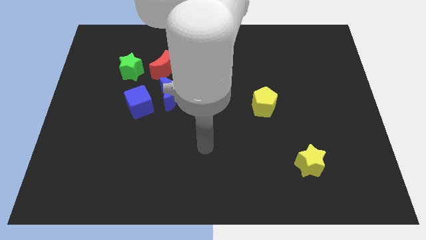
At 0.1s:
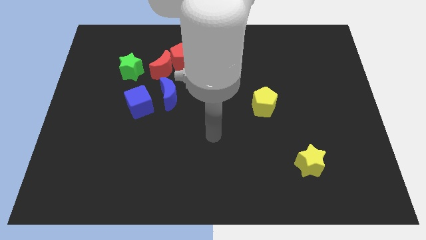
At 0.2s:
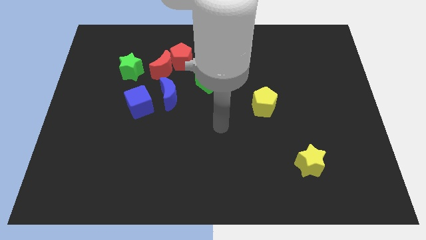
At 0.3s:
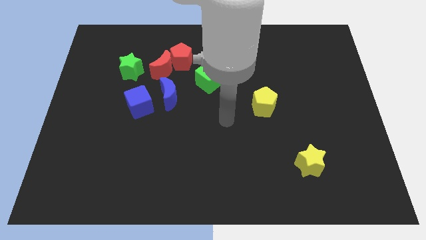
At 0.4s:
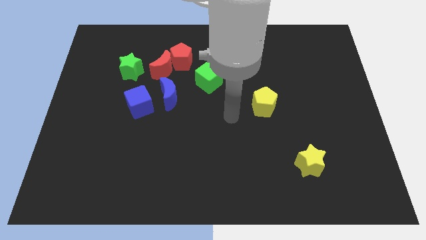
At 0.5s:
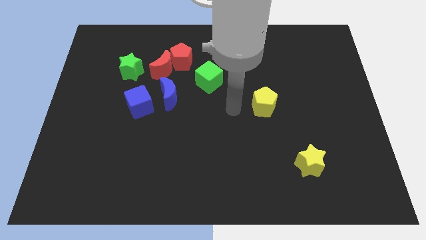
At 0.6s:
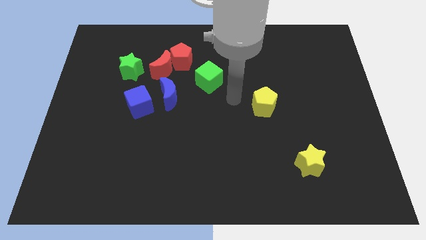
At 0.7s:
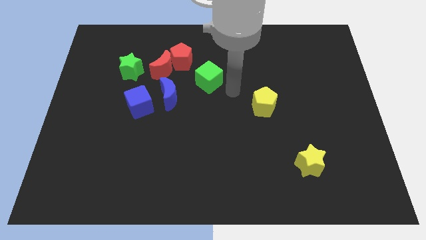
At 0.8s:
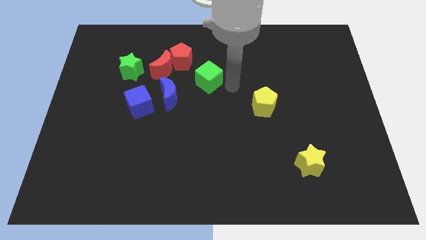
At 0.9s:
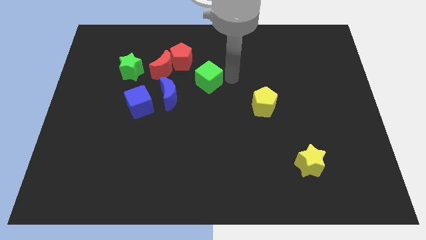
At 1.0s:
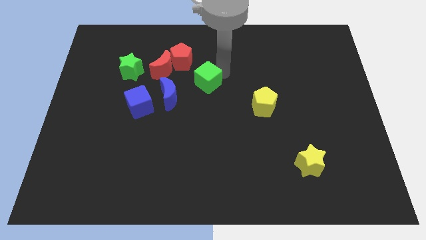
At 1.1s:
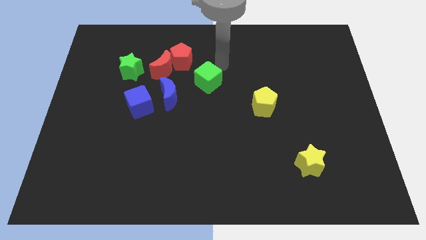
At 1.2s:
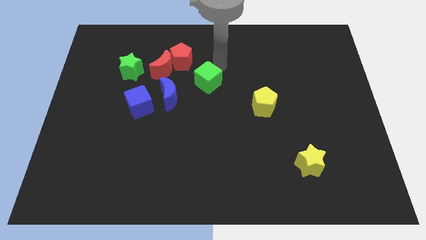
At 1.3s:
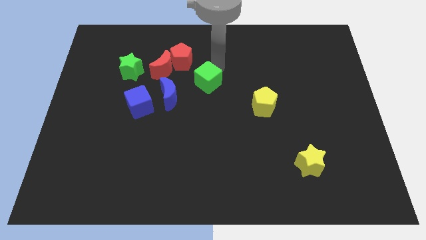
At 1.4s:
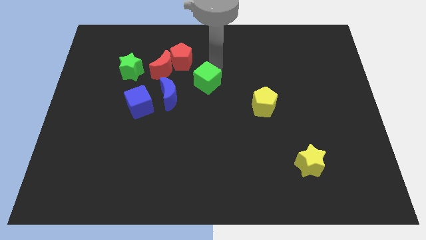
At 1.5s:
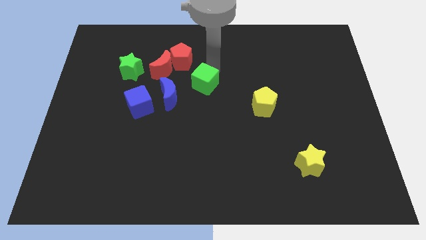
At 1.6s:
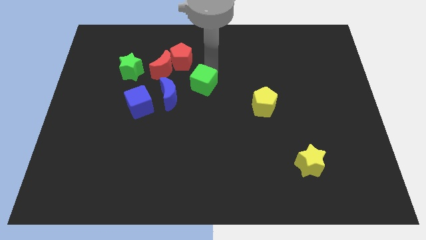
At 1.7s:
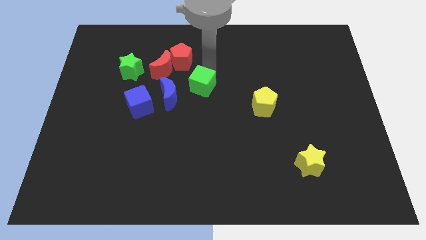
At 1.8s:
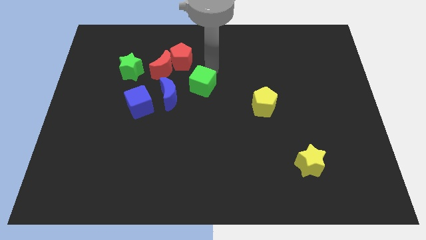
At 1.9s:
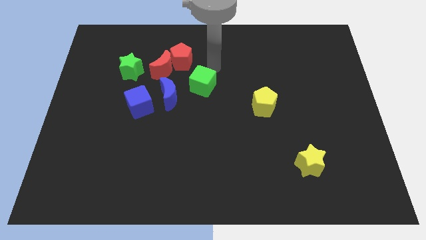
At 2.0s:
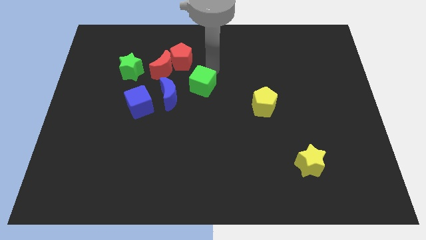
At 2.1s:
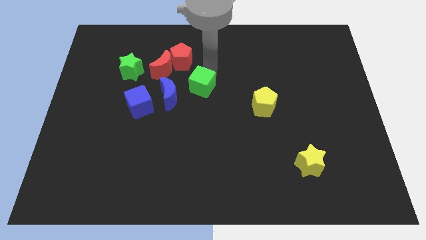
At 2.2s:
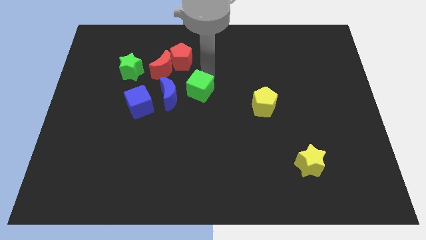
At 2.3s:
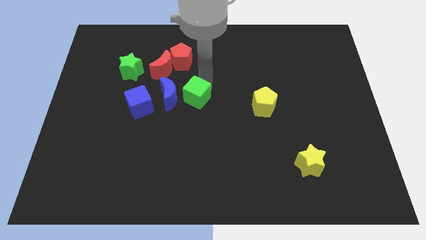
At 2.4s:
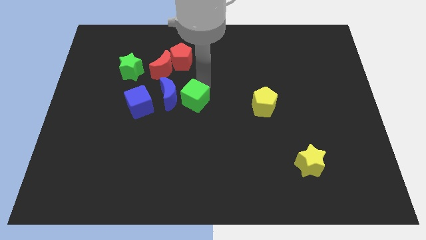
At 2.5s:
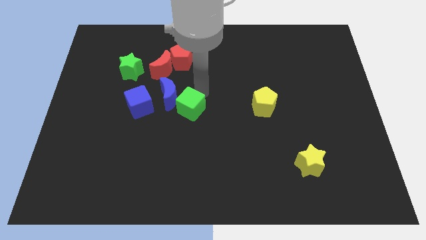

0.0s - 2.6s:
slightly push the green cube downwards and to the left

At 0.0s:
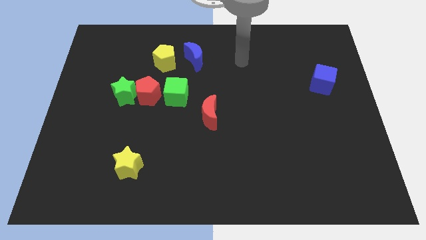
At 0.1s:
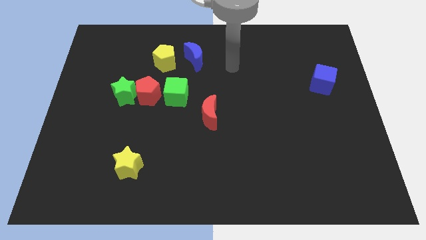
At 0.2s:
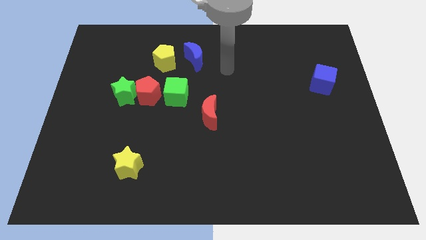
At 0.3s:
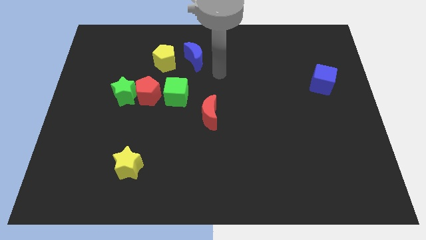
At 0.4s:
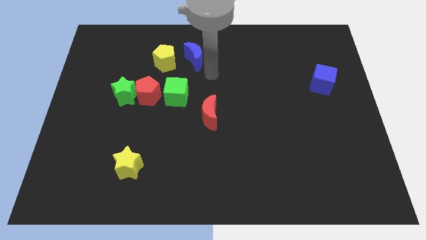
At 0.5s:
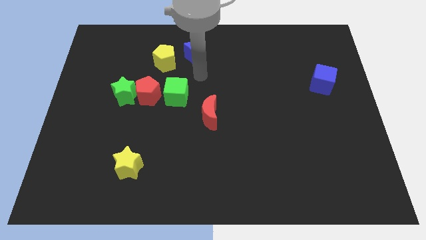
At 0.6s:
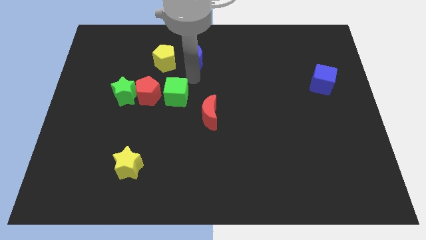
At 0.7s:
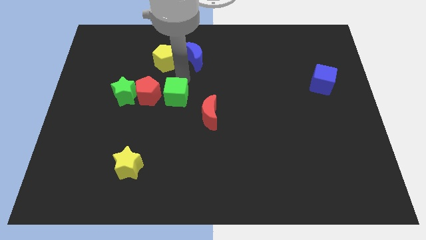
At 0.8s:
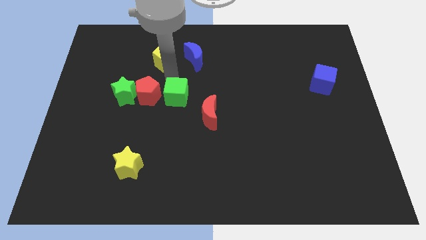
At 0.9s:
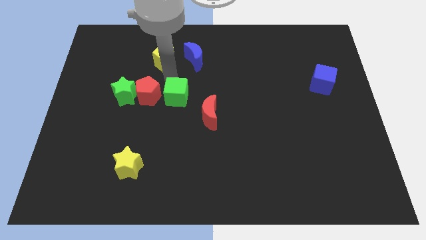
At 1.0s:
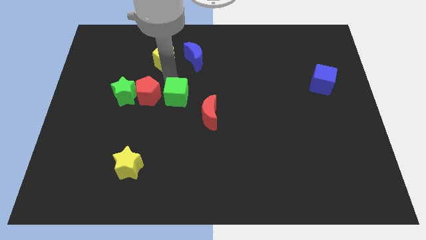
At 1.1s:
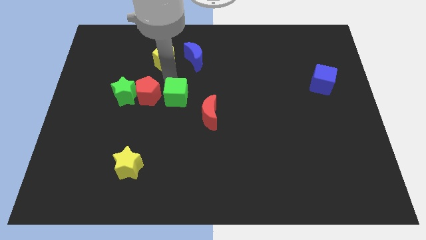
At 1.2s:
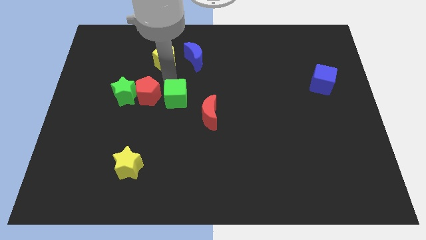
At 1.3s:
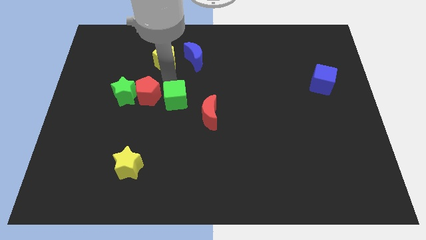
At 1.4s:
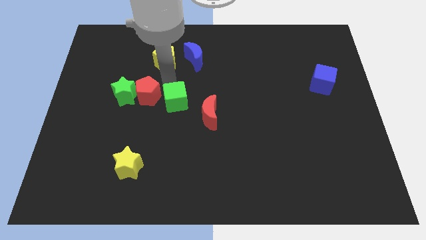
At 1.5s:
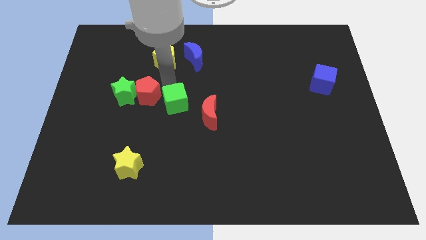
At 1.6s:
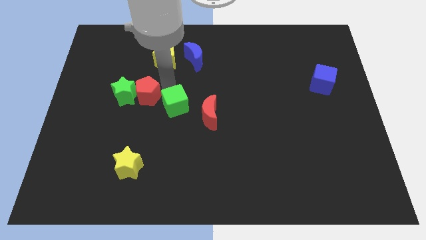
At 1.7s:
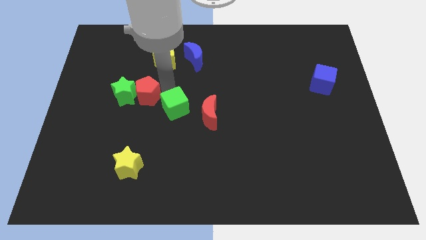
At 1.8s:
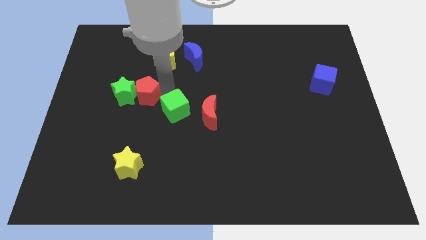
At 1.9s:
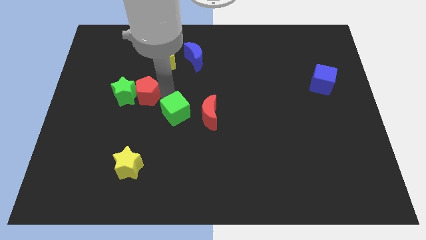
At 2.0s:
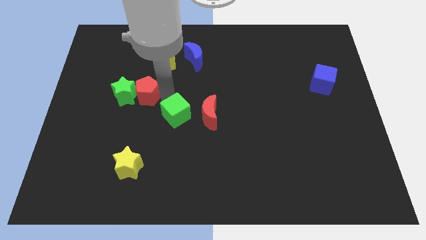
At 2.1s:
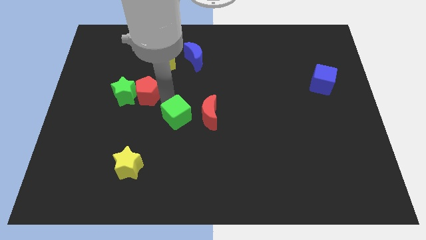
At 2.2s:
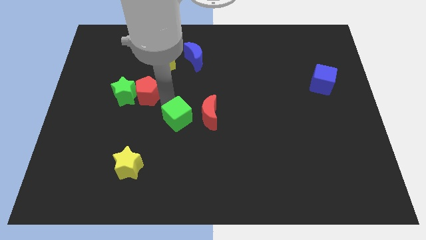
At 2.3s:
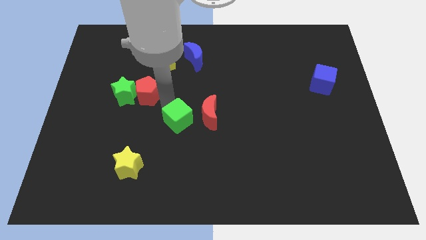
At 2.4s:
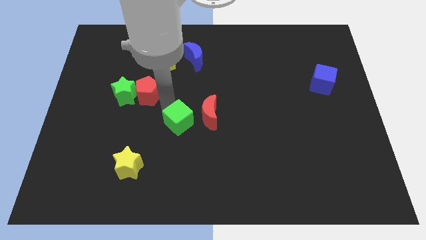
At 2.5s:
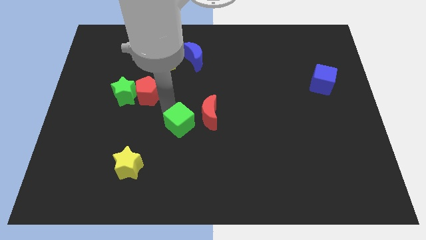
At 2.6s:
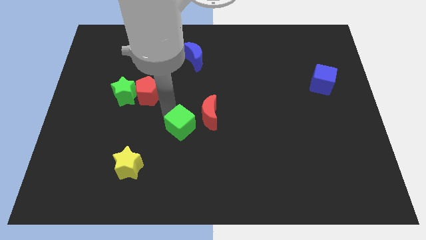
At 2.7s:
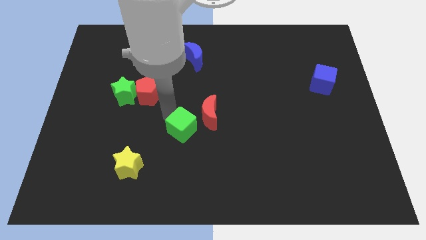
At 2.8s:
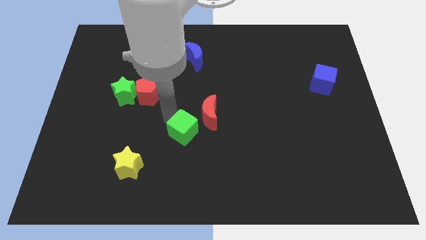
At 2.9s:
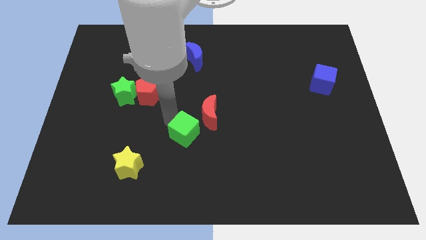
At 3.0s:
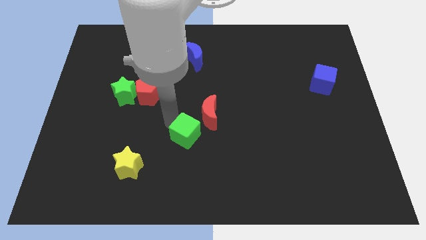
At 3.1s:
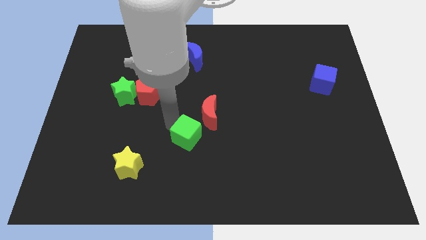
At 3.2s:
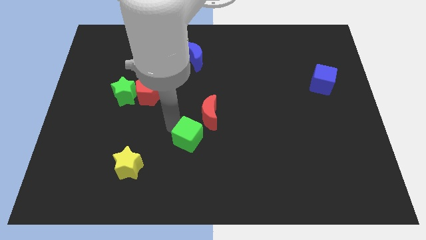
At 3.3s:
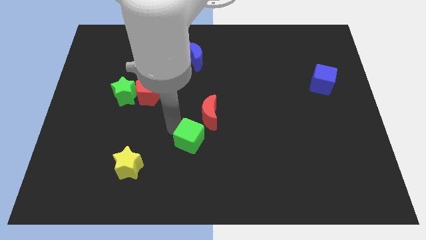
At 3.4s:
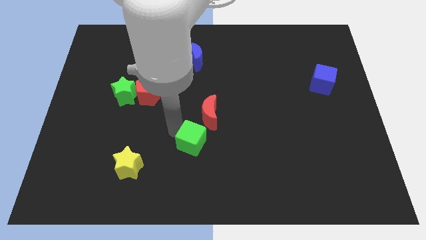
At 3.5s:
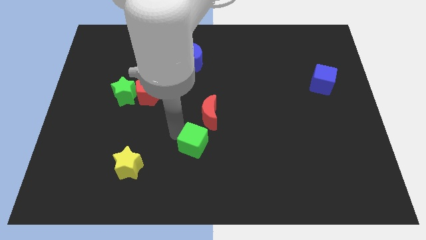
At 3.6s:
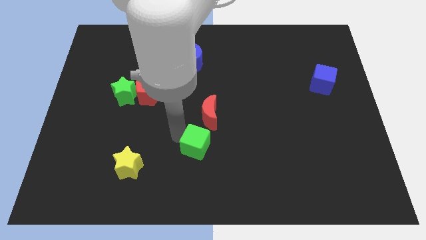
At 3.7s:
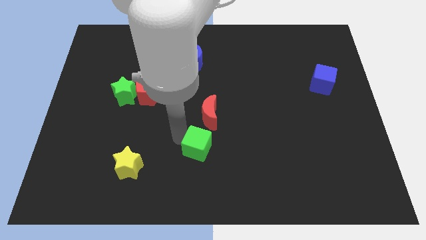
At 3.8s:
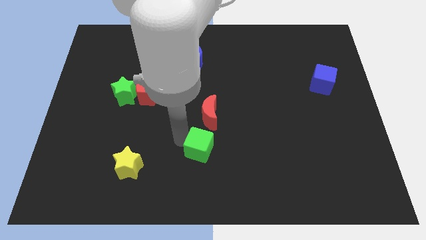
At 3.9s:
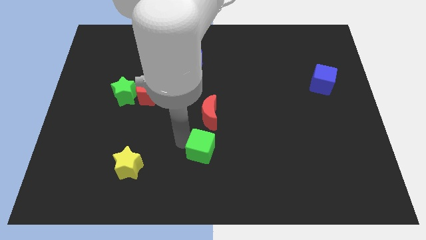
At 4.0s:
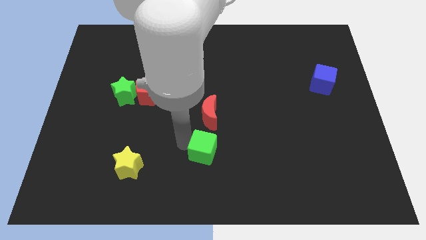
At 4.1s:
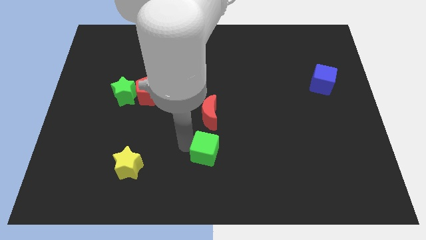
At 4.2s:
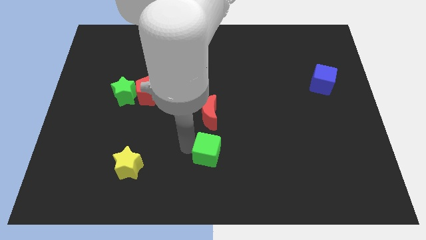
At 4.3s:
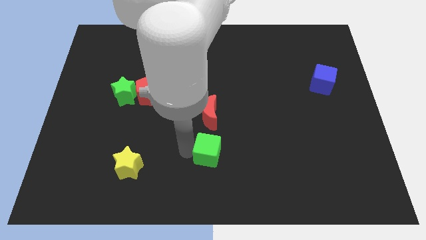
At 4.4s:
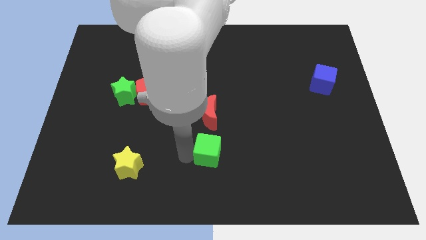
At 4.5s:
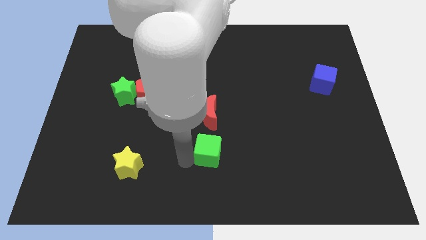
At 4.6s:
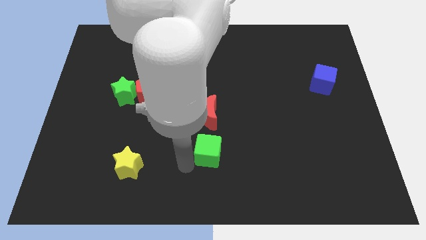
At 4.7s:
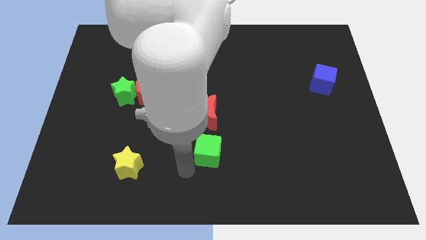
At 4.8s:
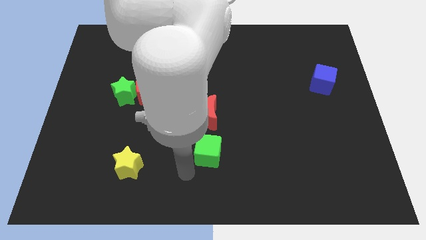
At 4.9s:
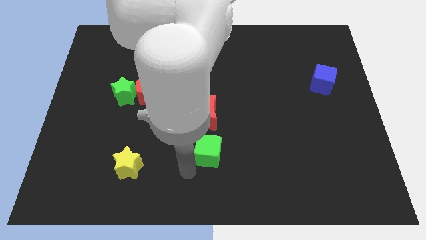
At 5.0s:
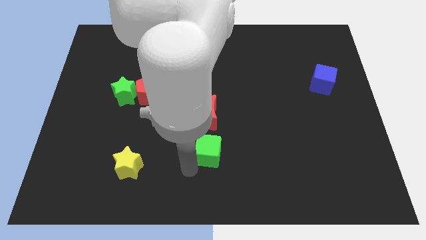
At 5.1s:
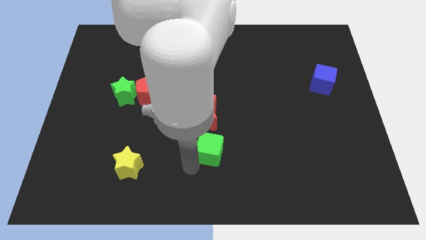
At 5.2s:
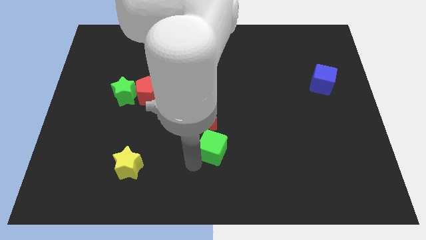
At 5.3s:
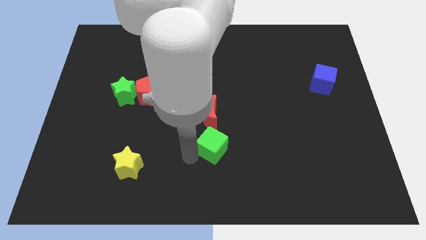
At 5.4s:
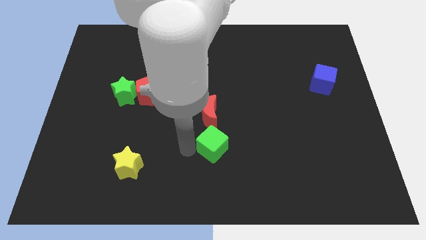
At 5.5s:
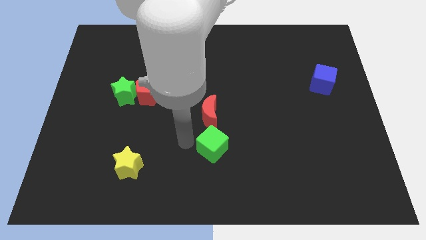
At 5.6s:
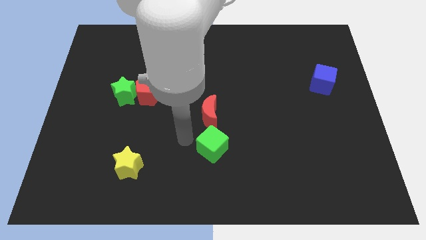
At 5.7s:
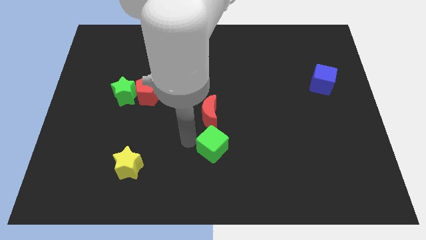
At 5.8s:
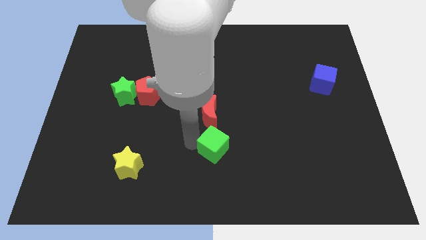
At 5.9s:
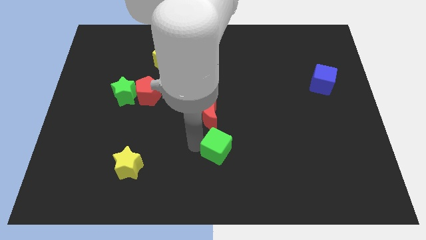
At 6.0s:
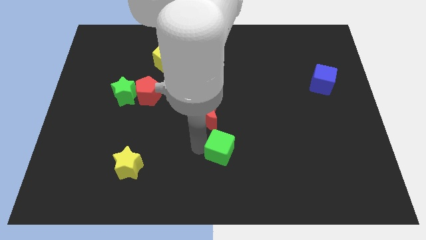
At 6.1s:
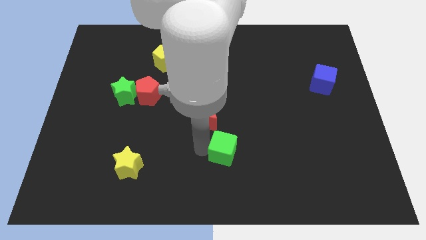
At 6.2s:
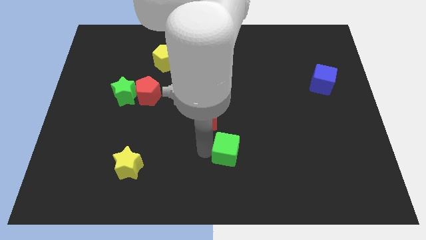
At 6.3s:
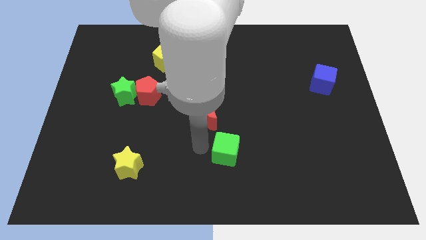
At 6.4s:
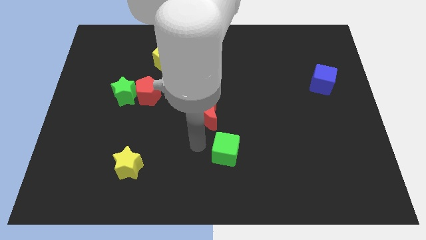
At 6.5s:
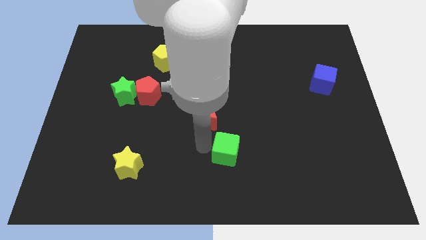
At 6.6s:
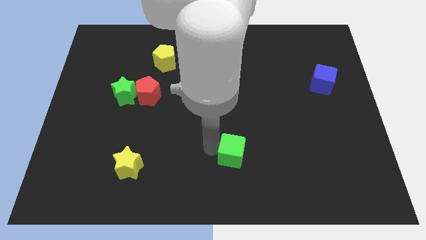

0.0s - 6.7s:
move the green cube diagonally down and to the right
